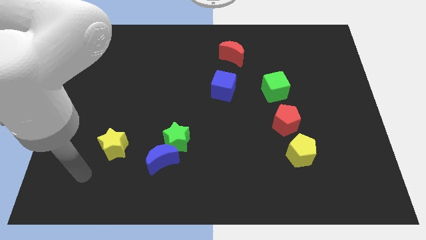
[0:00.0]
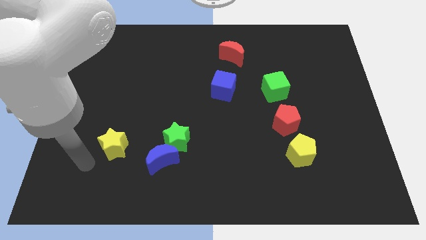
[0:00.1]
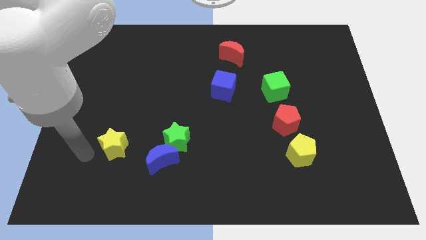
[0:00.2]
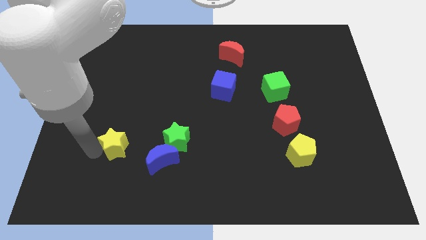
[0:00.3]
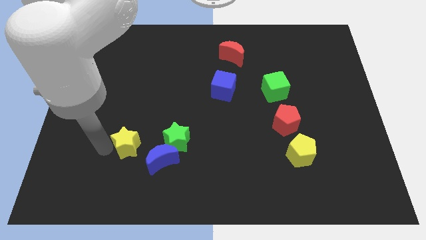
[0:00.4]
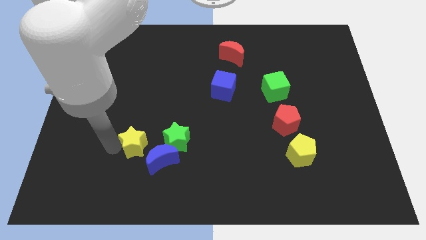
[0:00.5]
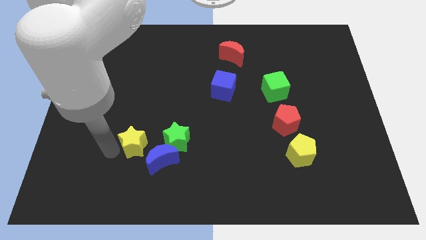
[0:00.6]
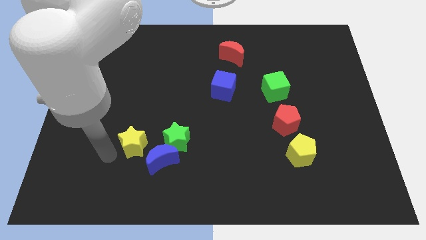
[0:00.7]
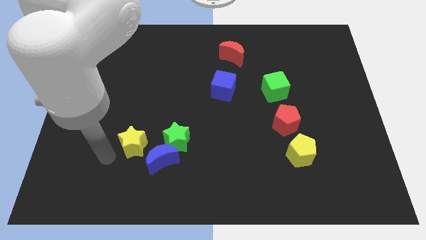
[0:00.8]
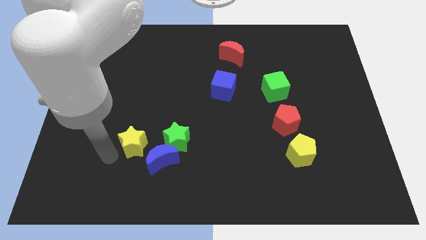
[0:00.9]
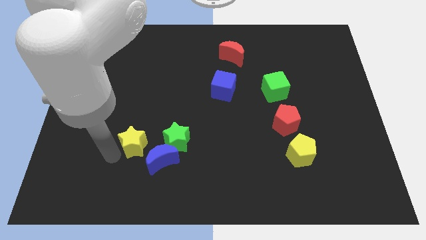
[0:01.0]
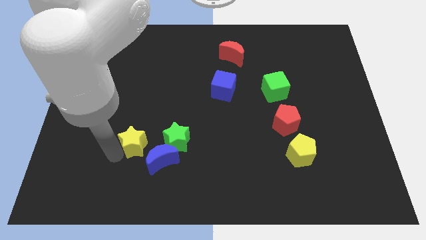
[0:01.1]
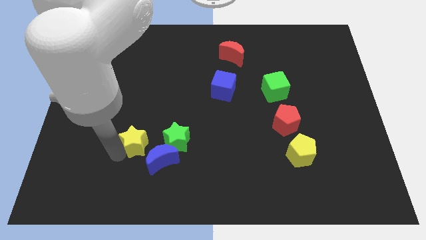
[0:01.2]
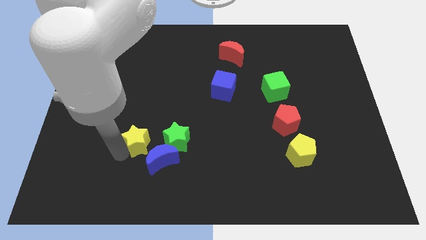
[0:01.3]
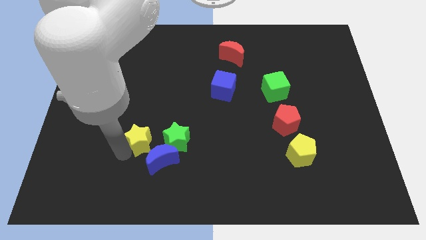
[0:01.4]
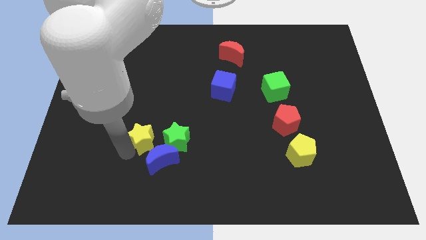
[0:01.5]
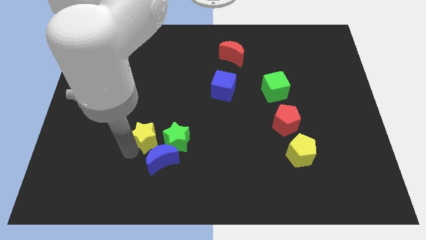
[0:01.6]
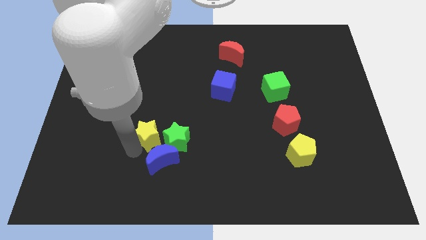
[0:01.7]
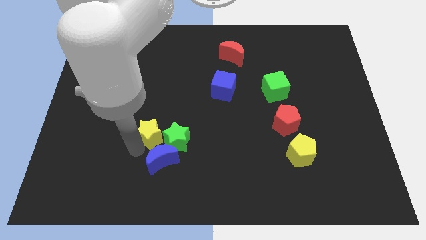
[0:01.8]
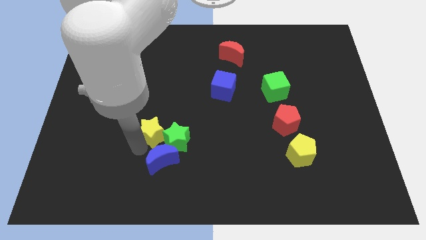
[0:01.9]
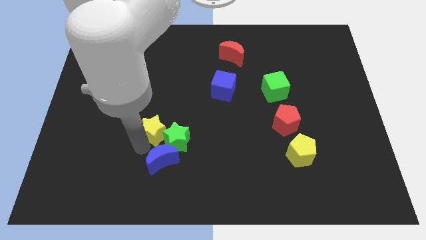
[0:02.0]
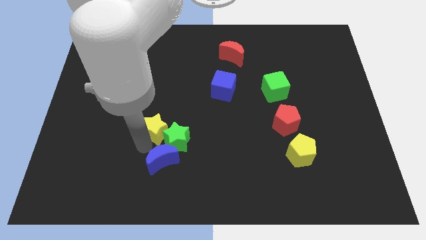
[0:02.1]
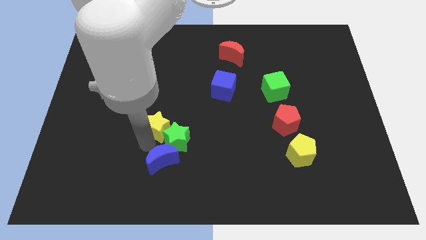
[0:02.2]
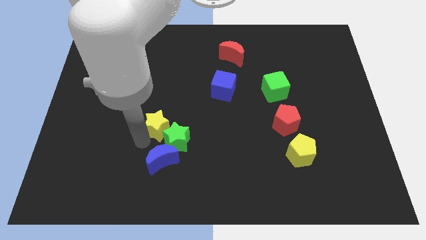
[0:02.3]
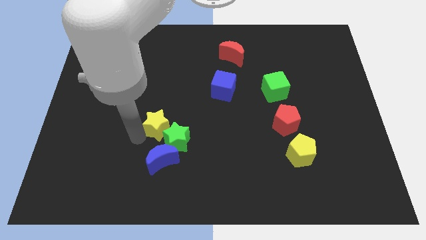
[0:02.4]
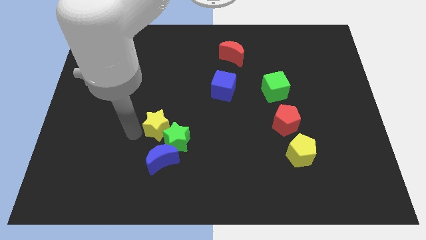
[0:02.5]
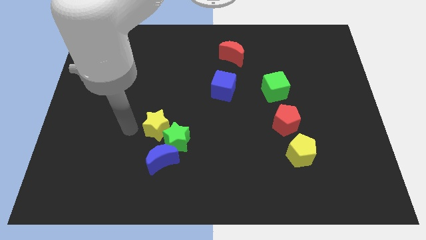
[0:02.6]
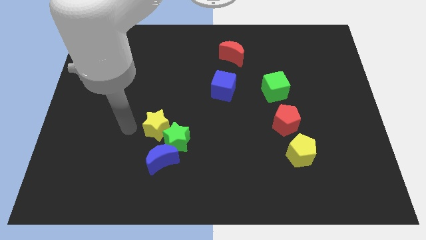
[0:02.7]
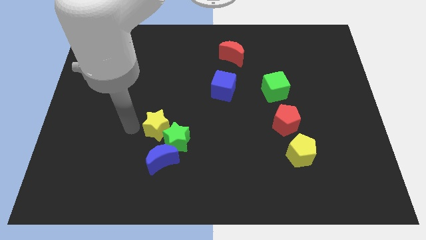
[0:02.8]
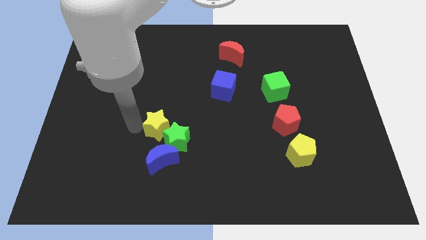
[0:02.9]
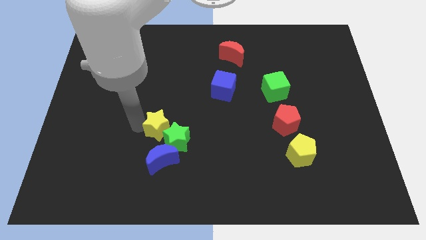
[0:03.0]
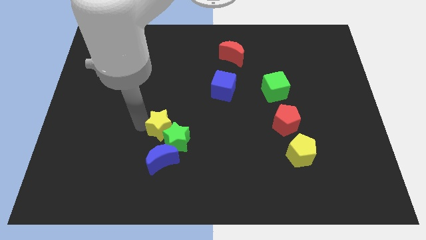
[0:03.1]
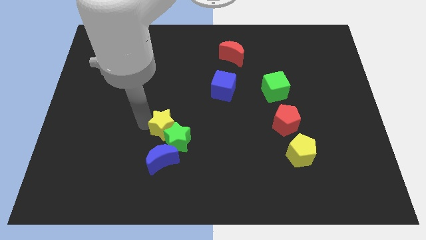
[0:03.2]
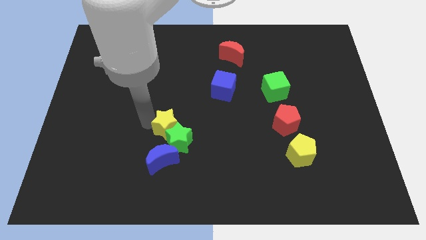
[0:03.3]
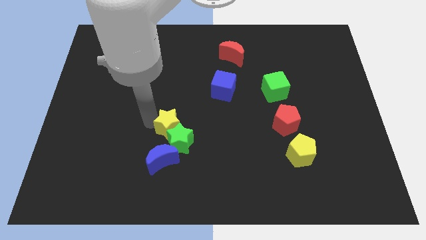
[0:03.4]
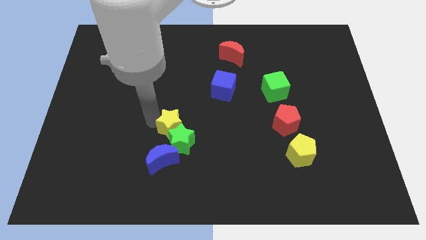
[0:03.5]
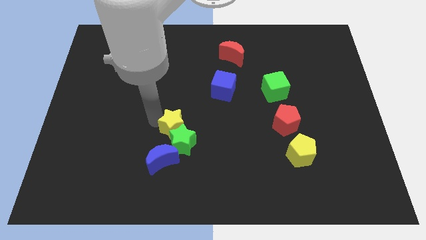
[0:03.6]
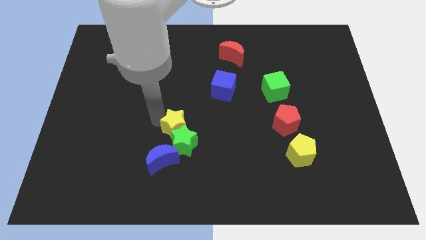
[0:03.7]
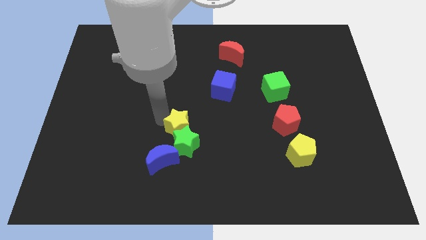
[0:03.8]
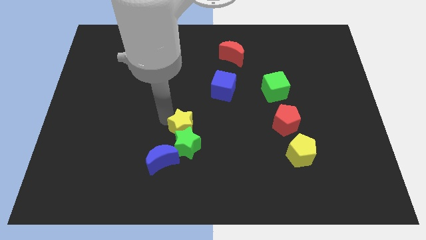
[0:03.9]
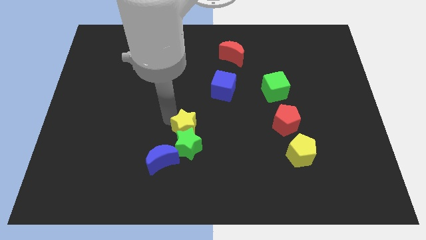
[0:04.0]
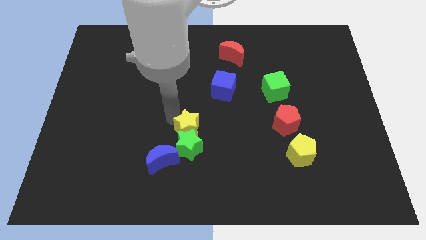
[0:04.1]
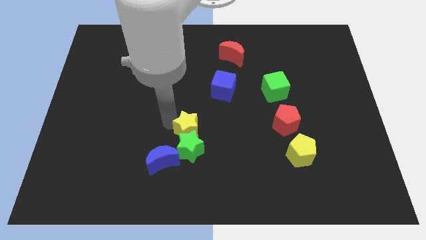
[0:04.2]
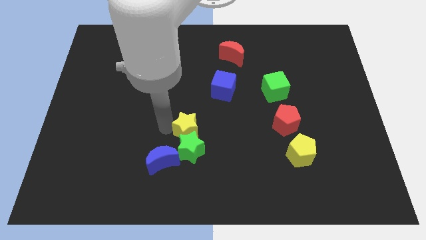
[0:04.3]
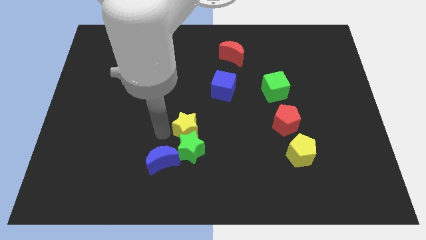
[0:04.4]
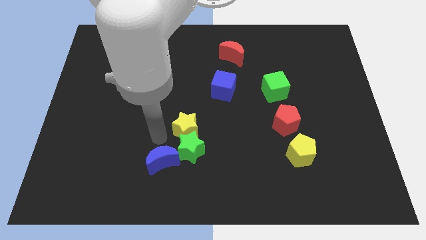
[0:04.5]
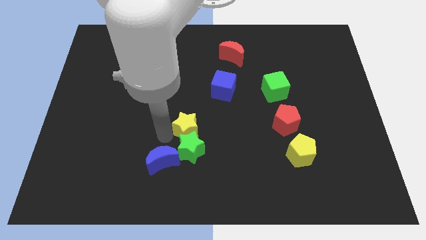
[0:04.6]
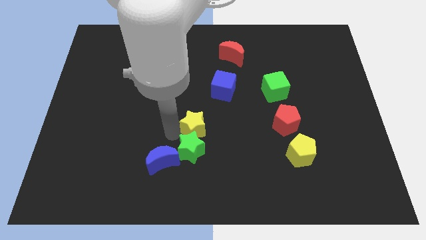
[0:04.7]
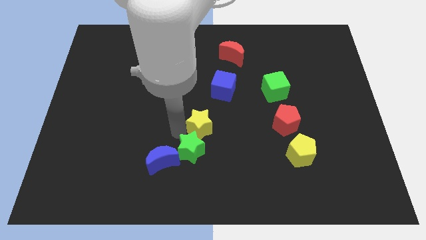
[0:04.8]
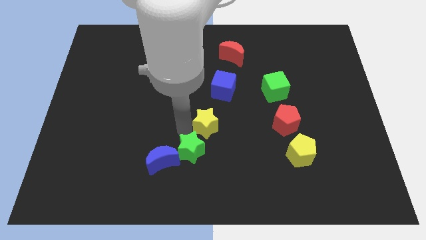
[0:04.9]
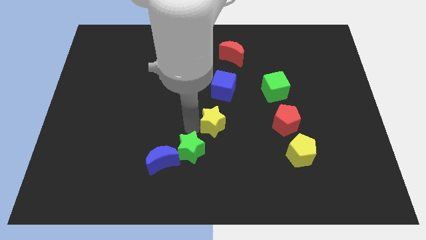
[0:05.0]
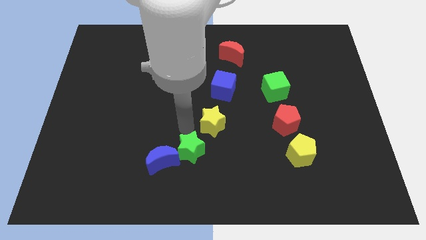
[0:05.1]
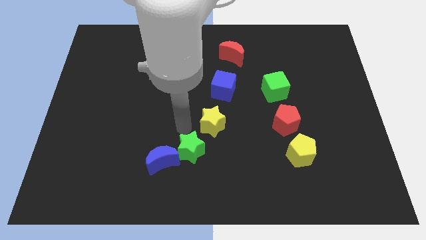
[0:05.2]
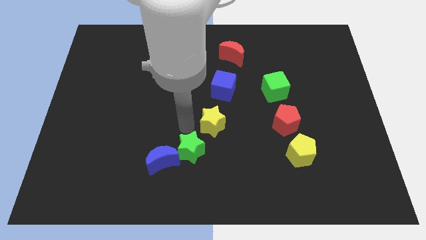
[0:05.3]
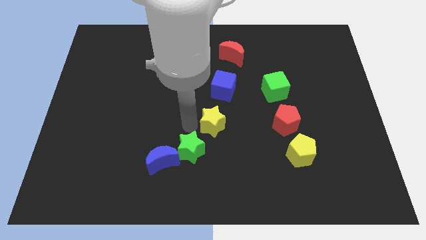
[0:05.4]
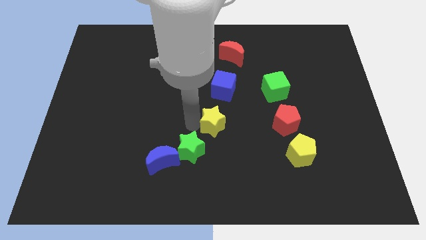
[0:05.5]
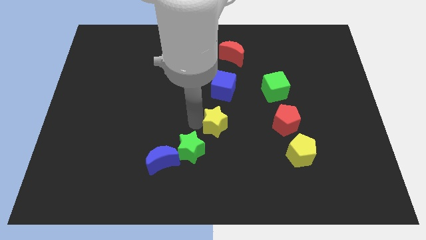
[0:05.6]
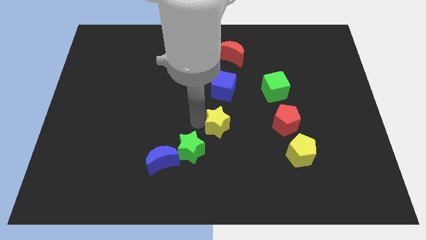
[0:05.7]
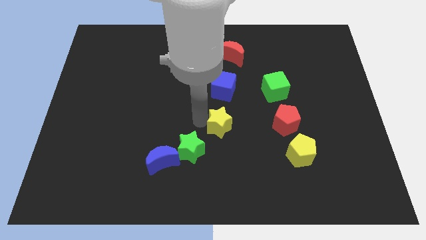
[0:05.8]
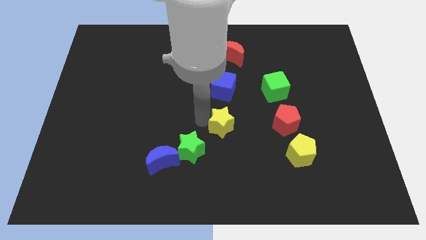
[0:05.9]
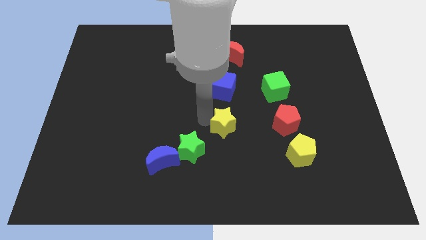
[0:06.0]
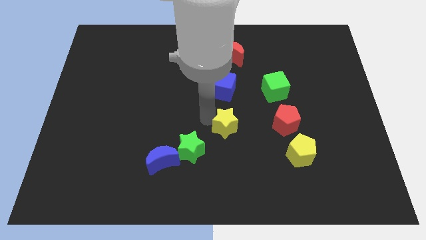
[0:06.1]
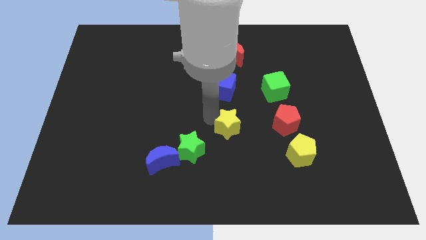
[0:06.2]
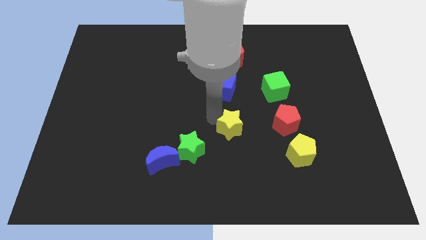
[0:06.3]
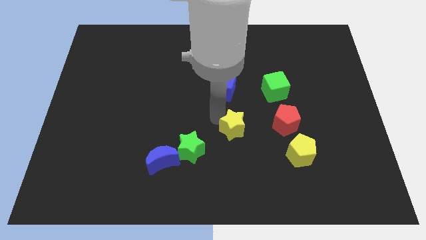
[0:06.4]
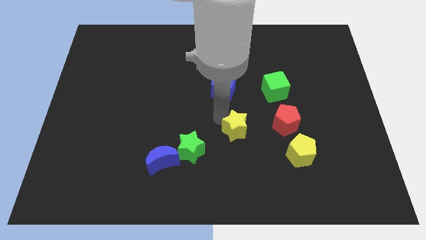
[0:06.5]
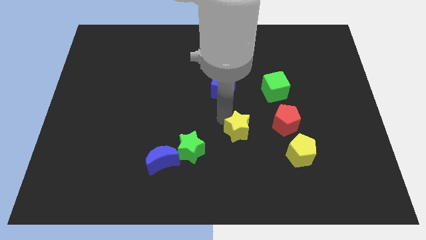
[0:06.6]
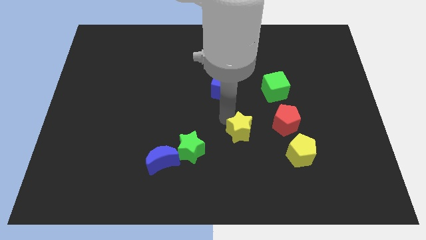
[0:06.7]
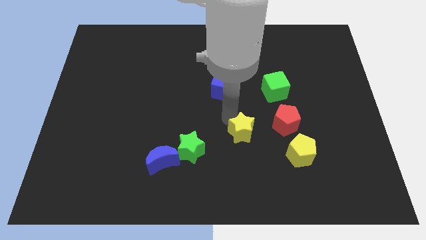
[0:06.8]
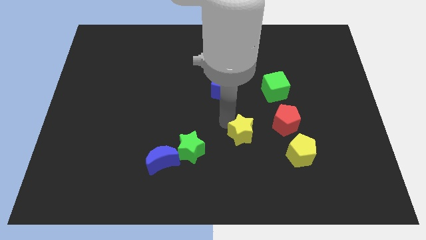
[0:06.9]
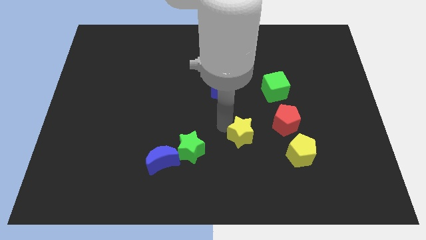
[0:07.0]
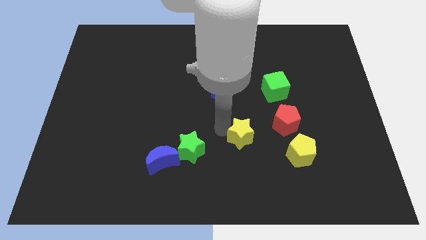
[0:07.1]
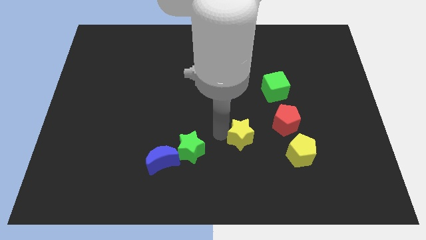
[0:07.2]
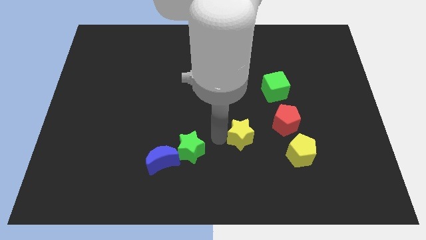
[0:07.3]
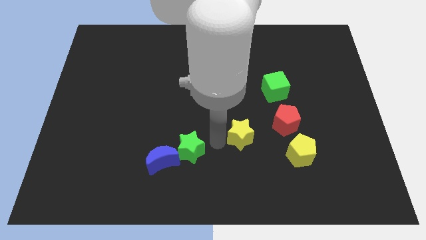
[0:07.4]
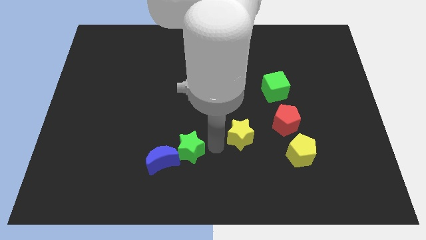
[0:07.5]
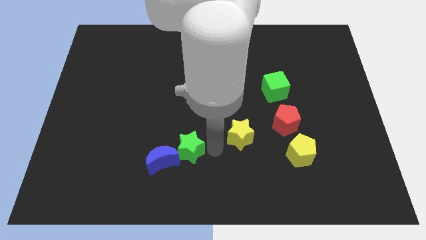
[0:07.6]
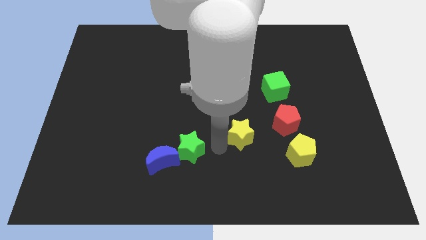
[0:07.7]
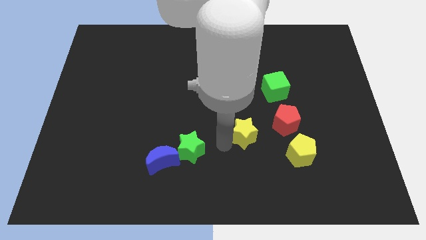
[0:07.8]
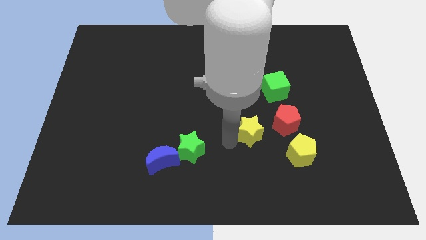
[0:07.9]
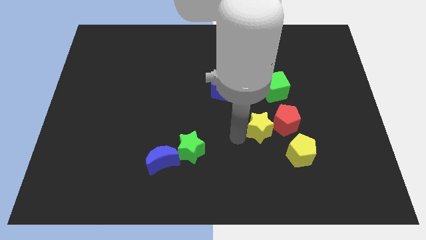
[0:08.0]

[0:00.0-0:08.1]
push the yellow star towards the red pentagon
